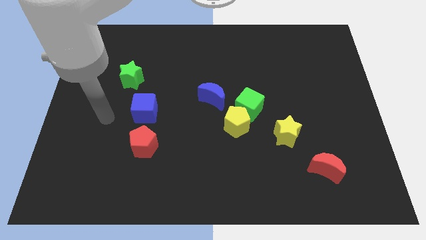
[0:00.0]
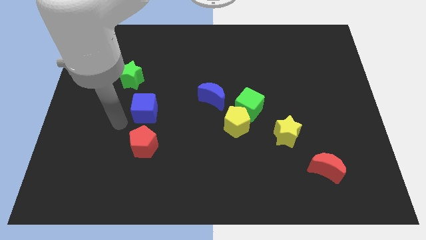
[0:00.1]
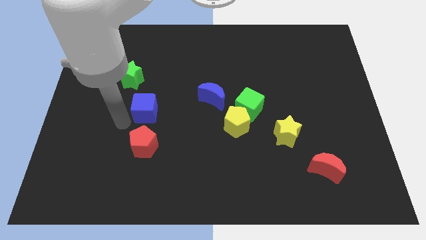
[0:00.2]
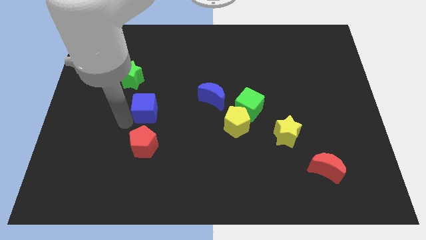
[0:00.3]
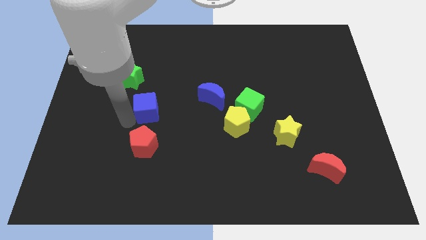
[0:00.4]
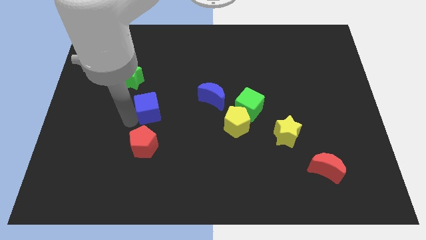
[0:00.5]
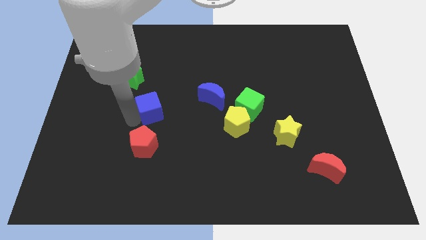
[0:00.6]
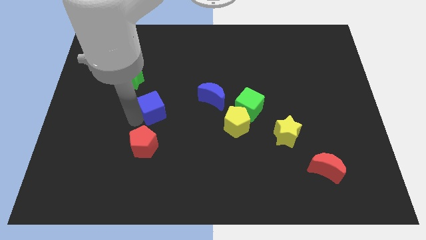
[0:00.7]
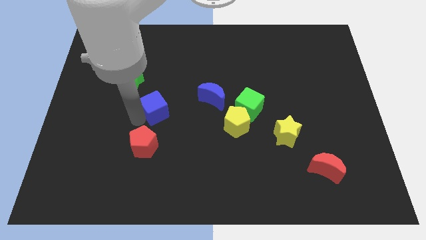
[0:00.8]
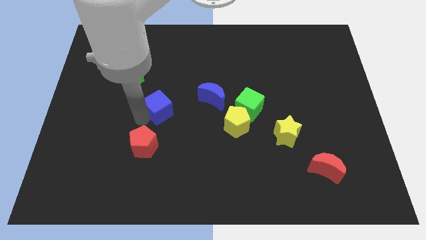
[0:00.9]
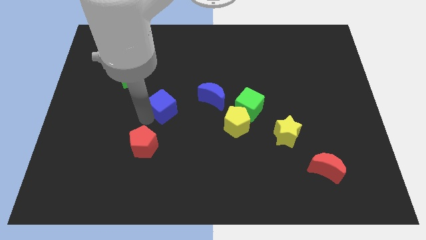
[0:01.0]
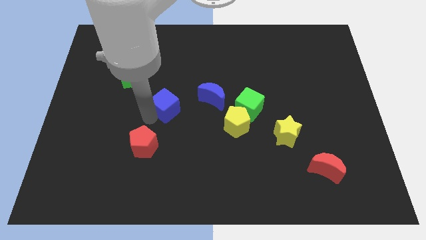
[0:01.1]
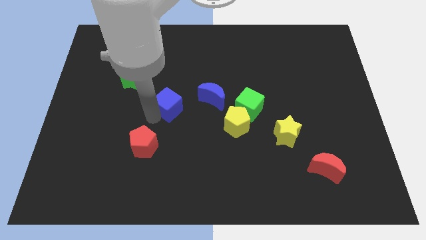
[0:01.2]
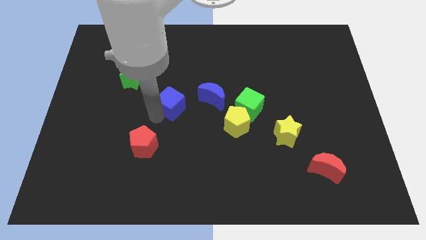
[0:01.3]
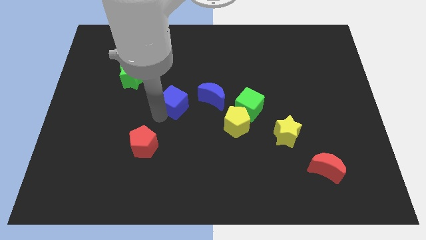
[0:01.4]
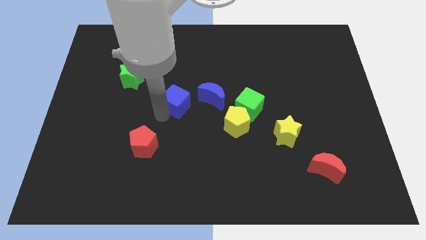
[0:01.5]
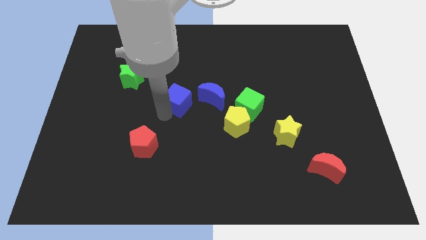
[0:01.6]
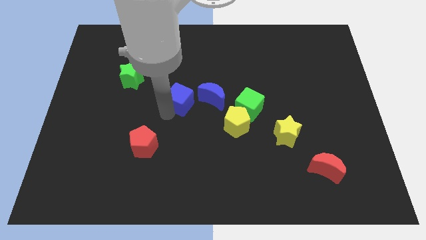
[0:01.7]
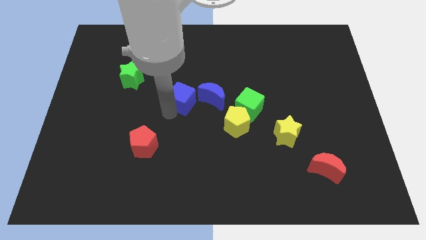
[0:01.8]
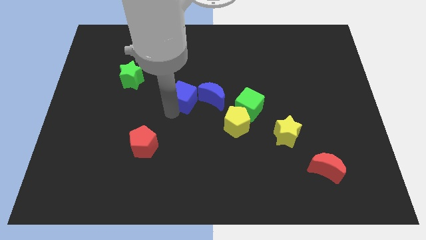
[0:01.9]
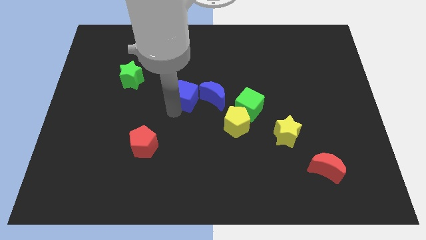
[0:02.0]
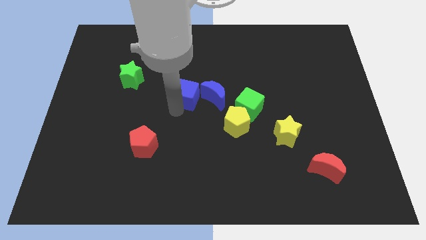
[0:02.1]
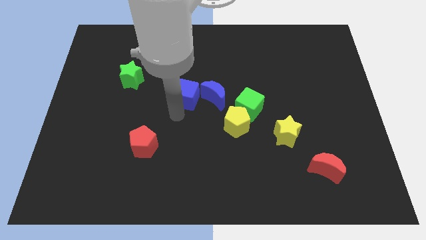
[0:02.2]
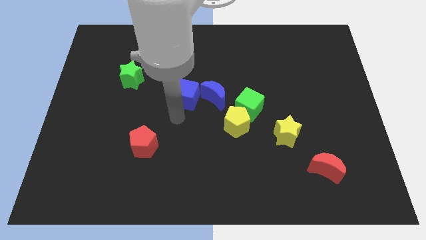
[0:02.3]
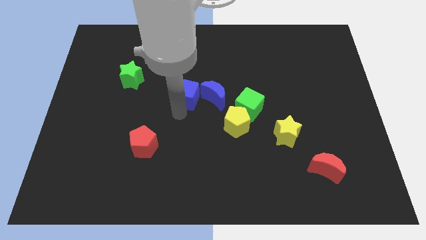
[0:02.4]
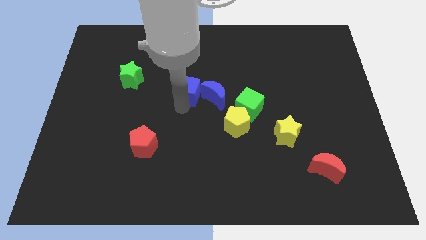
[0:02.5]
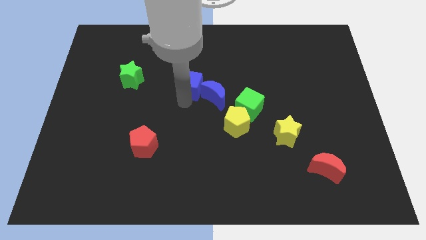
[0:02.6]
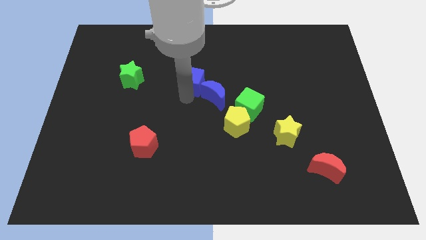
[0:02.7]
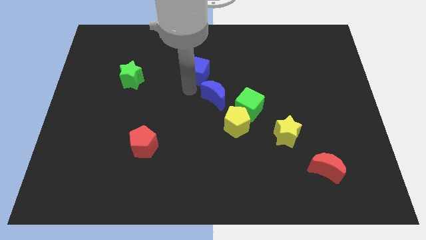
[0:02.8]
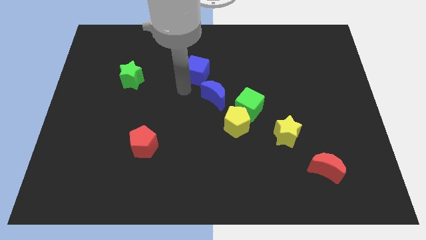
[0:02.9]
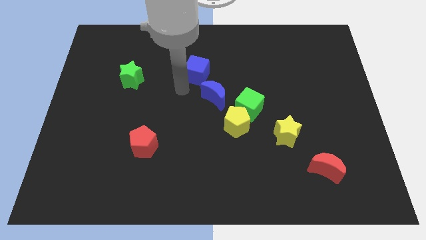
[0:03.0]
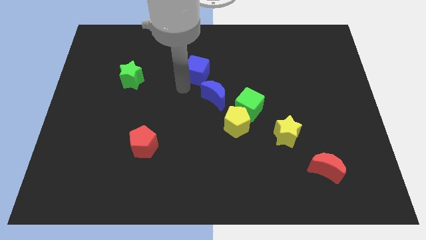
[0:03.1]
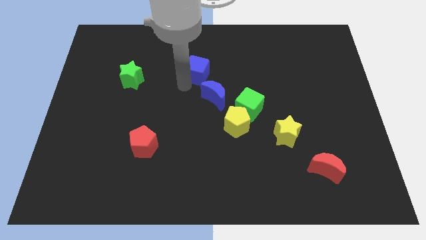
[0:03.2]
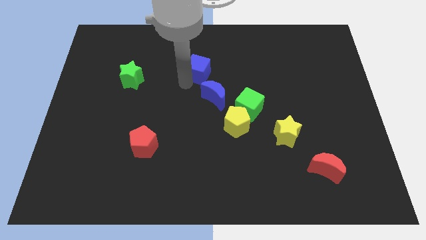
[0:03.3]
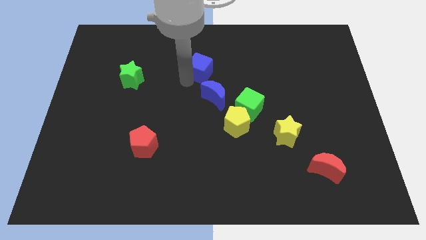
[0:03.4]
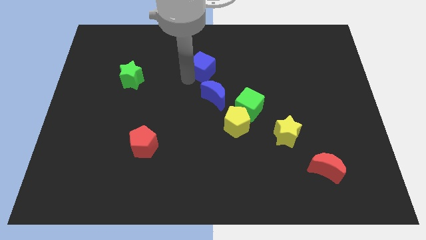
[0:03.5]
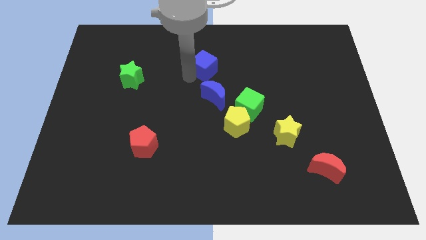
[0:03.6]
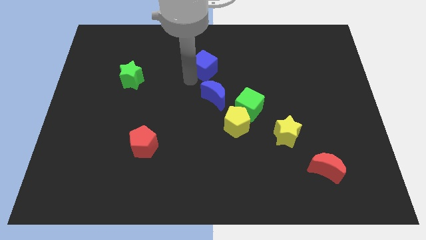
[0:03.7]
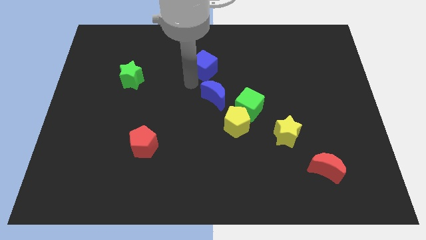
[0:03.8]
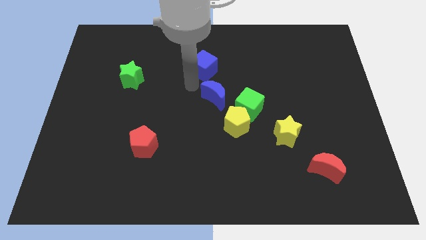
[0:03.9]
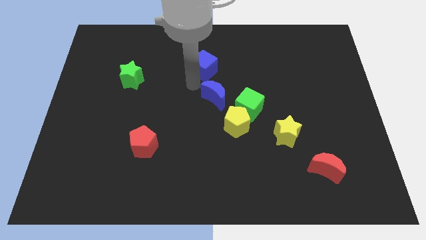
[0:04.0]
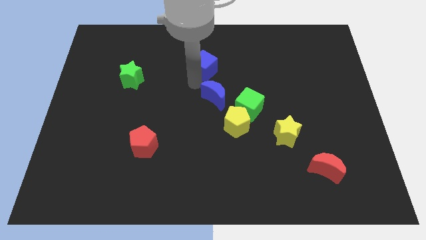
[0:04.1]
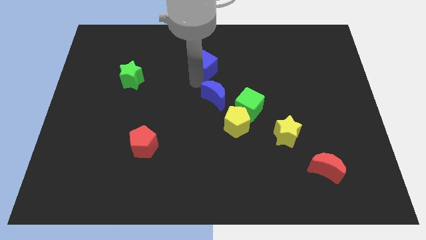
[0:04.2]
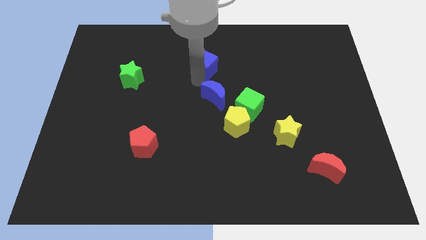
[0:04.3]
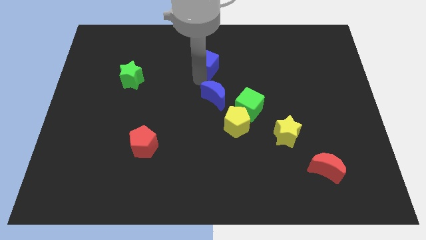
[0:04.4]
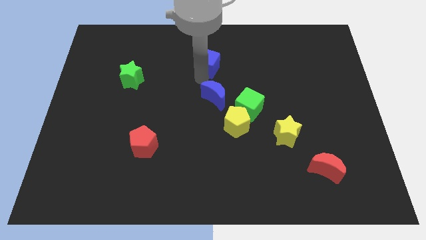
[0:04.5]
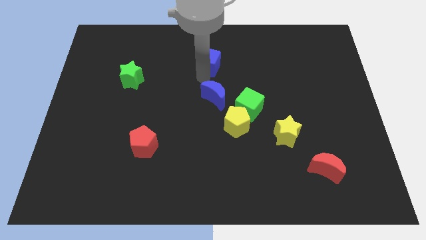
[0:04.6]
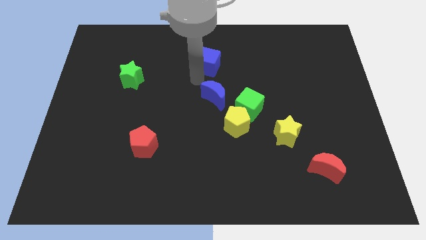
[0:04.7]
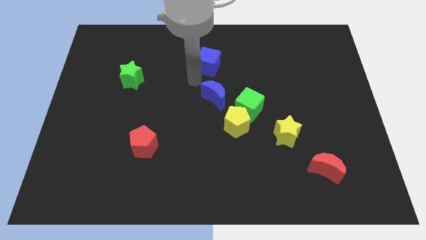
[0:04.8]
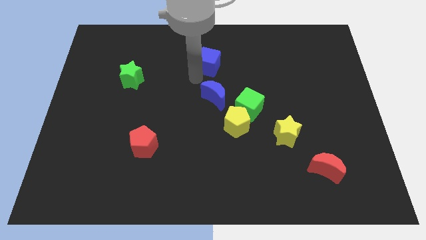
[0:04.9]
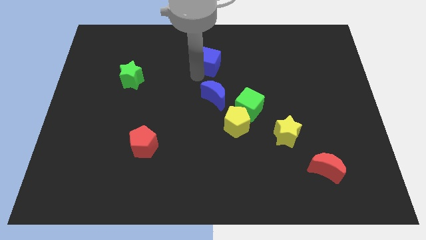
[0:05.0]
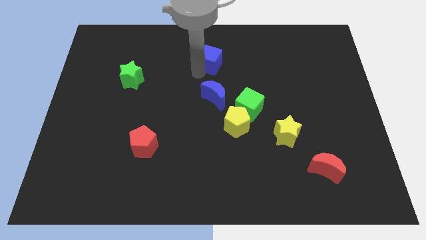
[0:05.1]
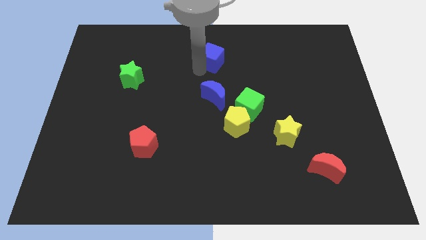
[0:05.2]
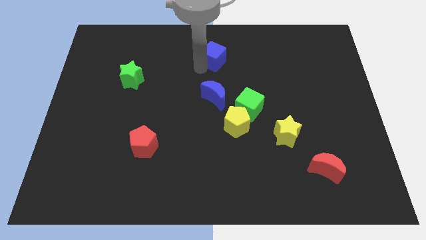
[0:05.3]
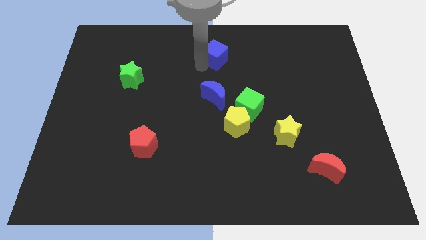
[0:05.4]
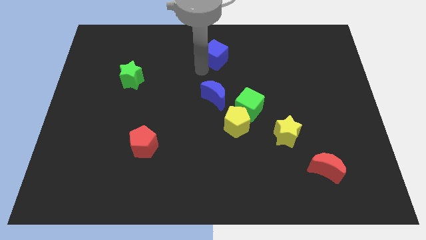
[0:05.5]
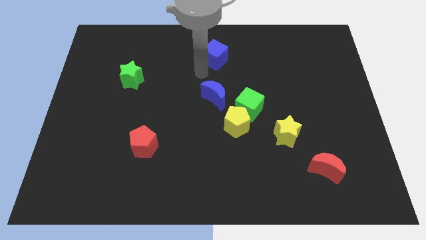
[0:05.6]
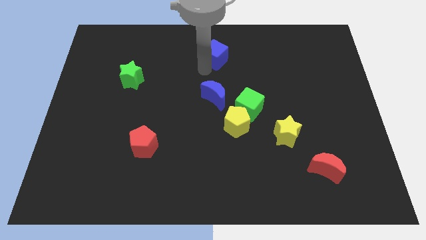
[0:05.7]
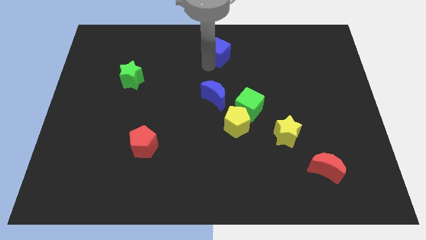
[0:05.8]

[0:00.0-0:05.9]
put the blue cube to the top
